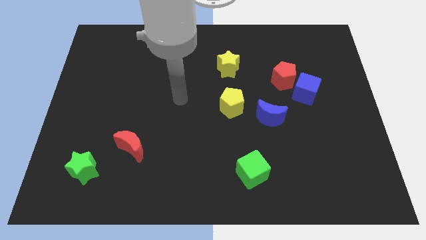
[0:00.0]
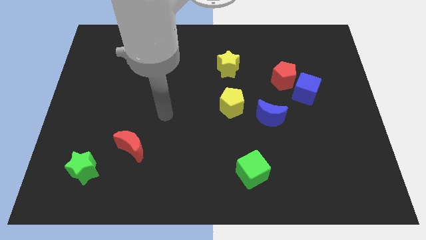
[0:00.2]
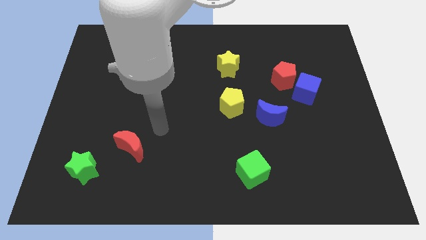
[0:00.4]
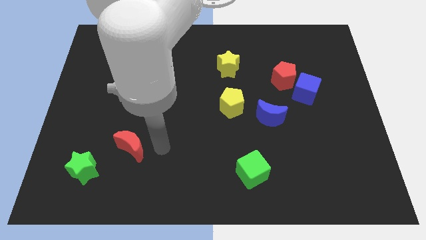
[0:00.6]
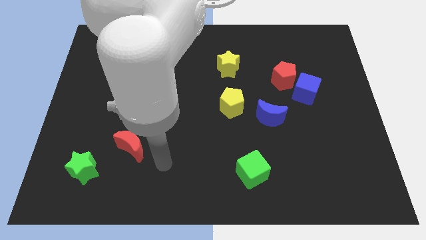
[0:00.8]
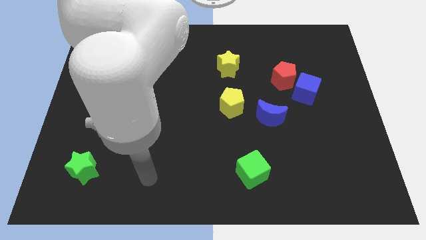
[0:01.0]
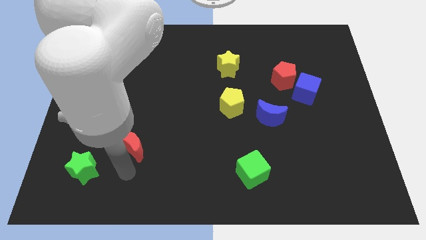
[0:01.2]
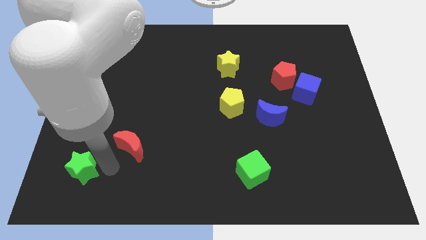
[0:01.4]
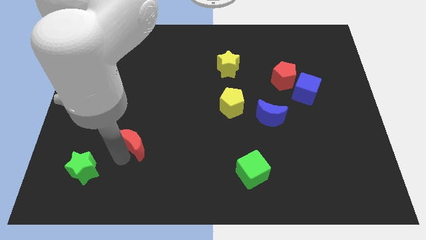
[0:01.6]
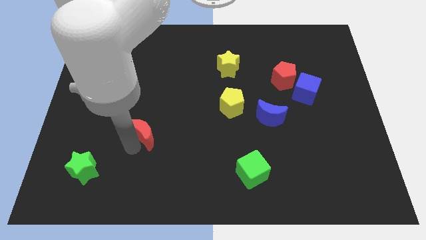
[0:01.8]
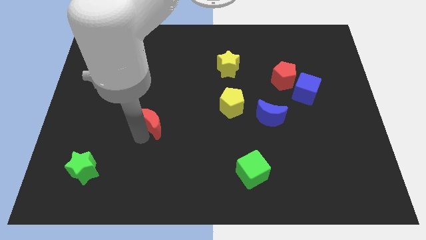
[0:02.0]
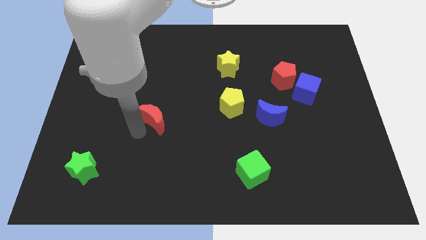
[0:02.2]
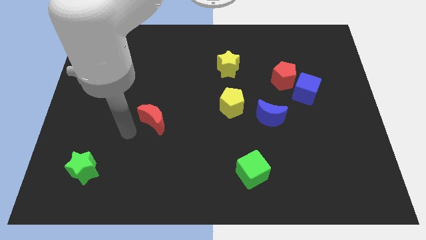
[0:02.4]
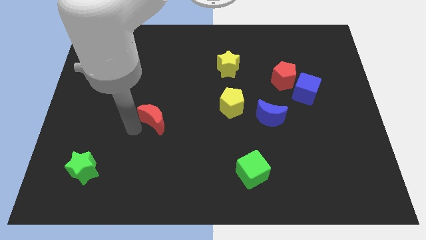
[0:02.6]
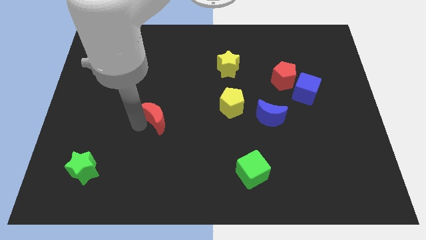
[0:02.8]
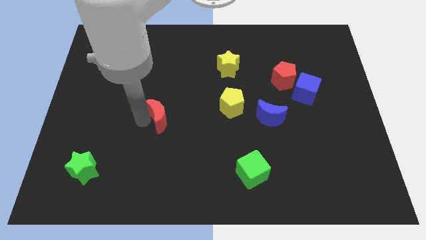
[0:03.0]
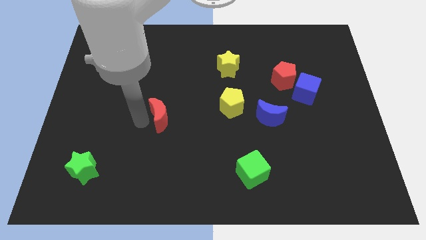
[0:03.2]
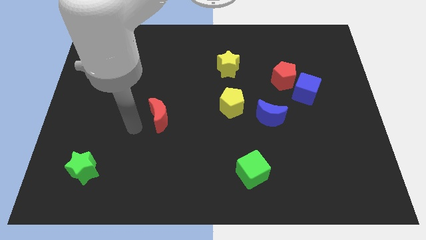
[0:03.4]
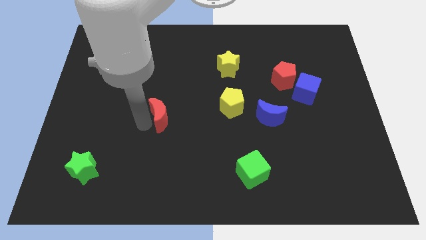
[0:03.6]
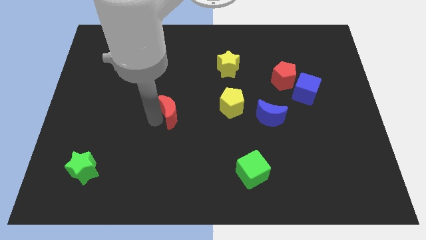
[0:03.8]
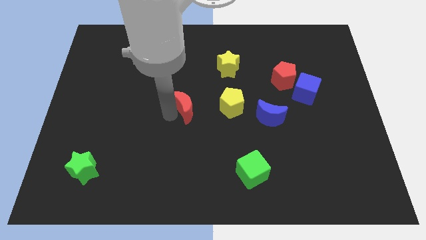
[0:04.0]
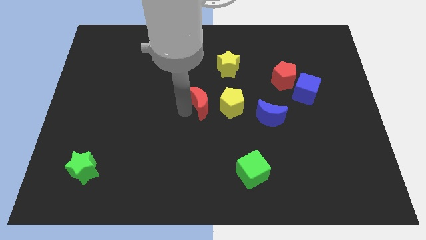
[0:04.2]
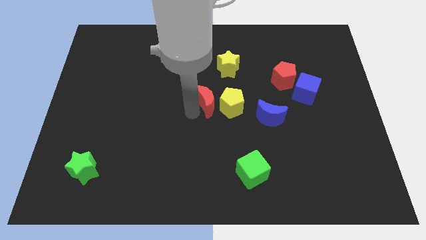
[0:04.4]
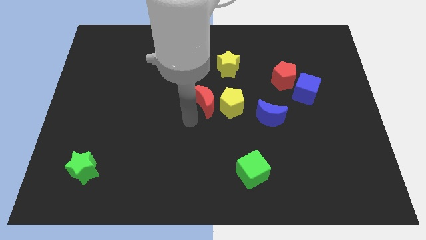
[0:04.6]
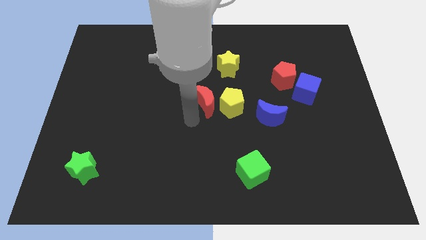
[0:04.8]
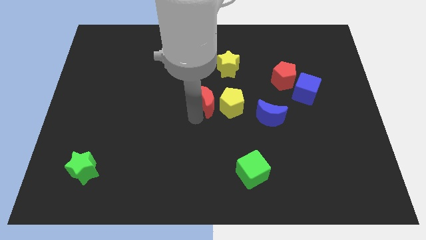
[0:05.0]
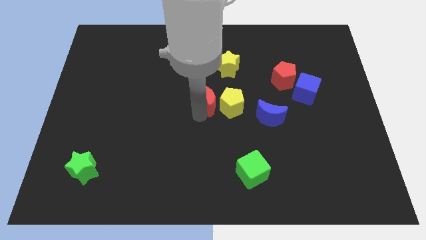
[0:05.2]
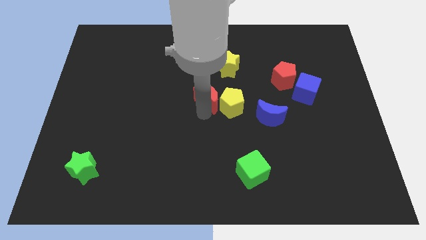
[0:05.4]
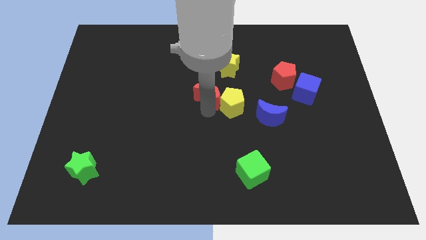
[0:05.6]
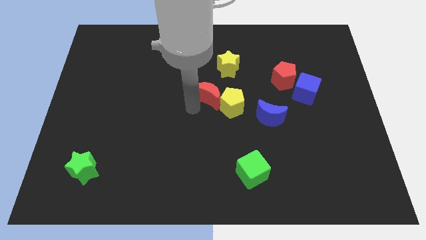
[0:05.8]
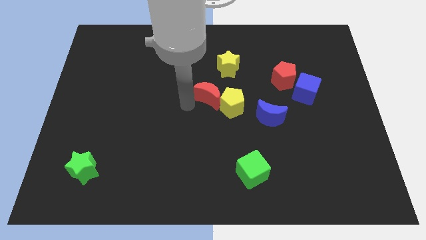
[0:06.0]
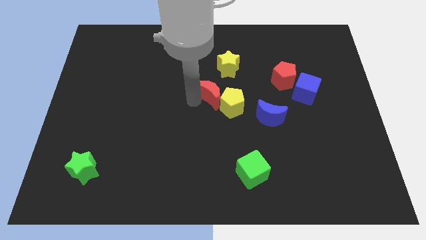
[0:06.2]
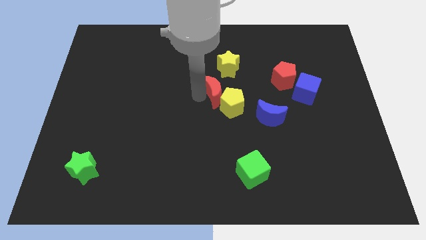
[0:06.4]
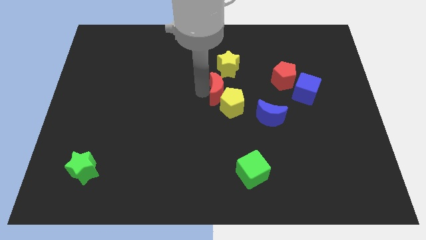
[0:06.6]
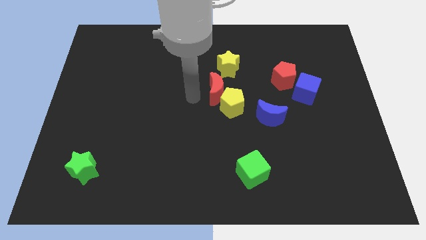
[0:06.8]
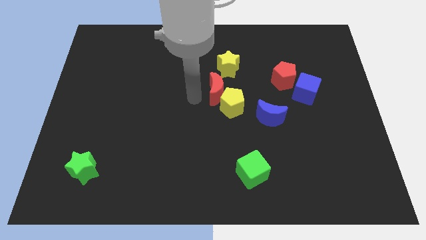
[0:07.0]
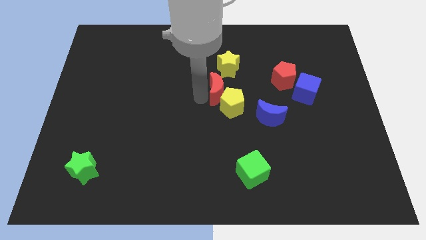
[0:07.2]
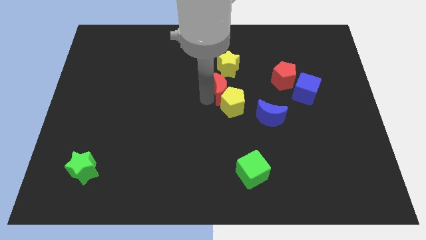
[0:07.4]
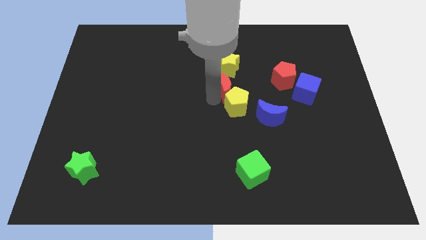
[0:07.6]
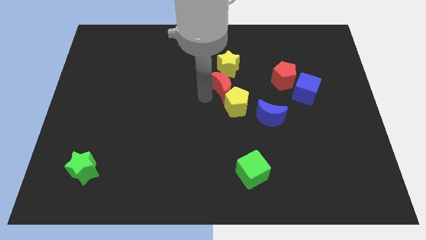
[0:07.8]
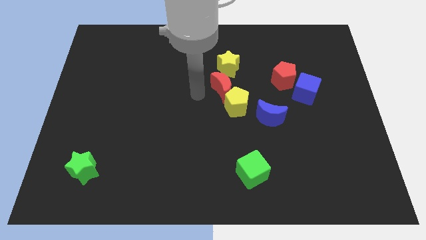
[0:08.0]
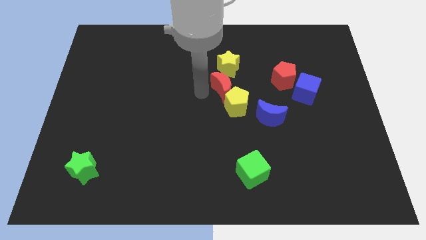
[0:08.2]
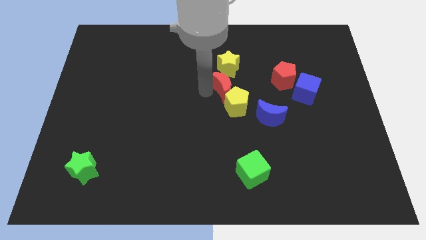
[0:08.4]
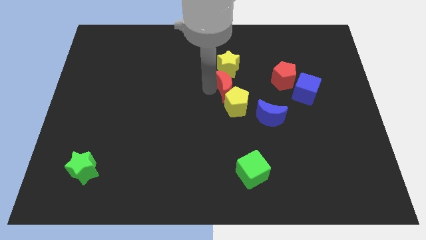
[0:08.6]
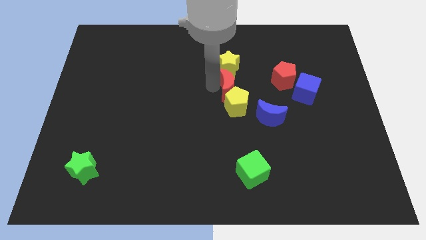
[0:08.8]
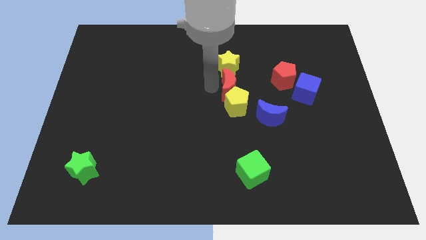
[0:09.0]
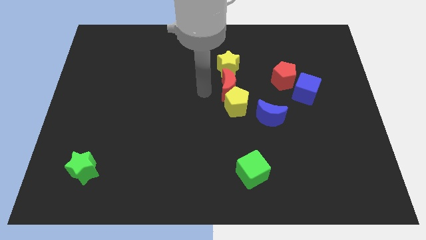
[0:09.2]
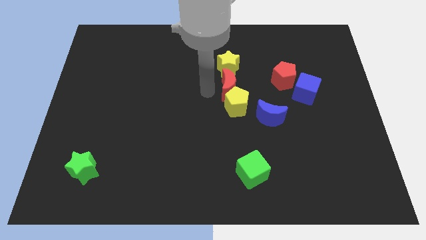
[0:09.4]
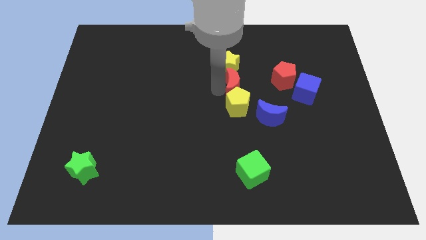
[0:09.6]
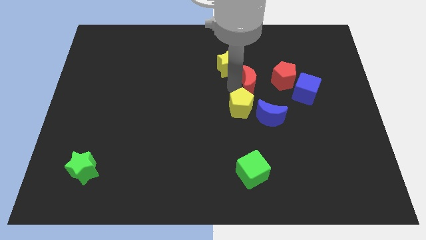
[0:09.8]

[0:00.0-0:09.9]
slide the red moon above the blue moon

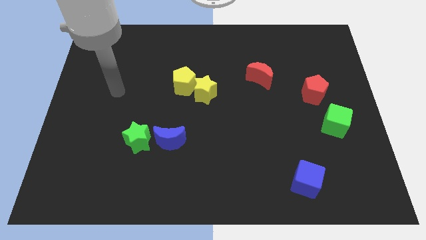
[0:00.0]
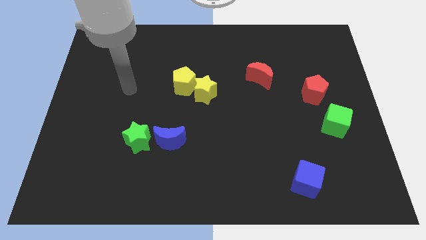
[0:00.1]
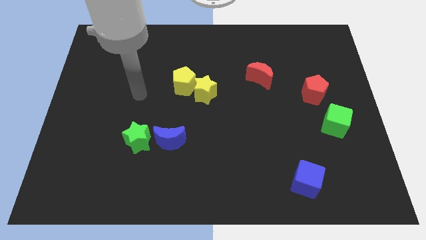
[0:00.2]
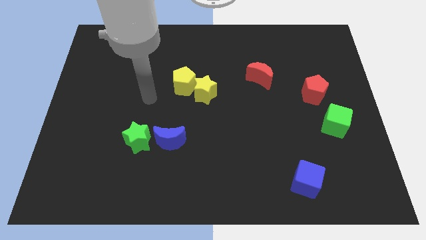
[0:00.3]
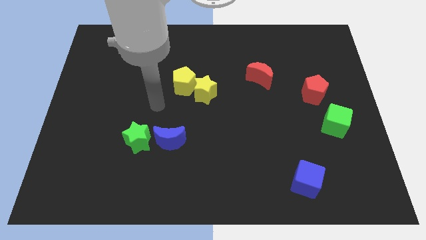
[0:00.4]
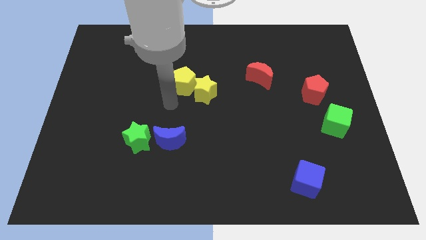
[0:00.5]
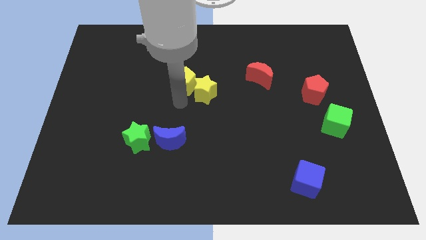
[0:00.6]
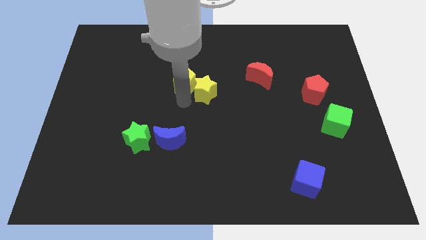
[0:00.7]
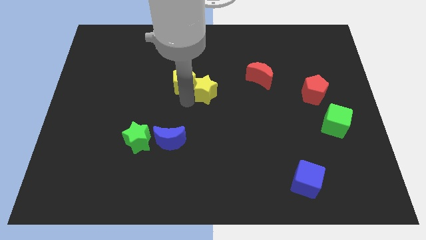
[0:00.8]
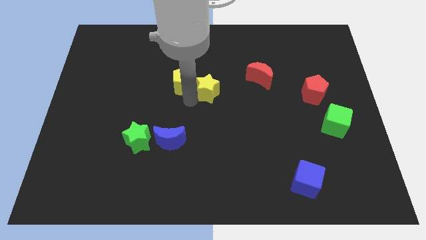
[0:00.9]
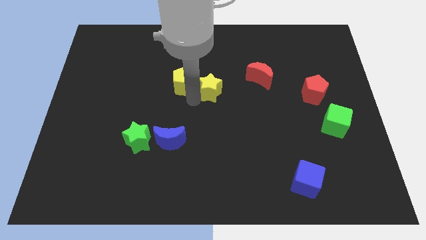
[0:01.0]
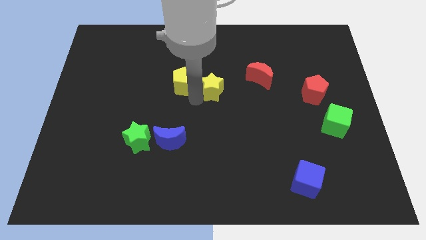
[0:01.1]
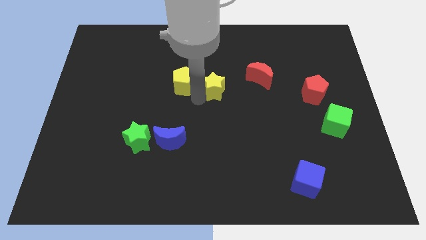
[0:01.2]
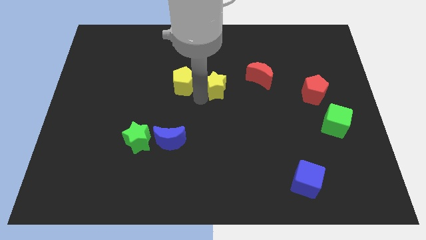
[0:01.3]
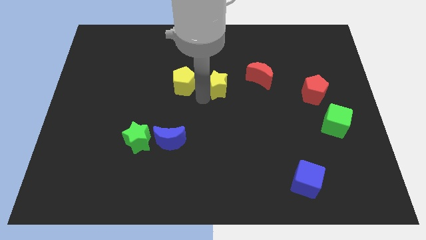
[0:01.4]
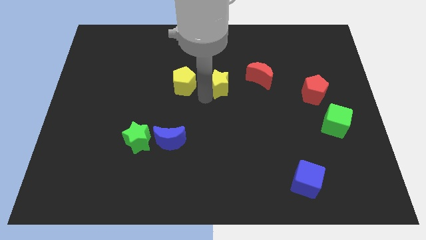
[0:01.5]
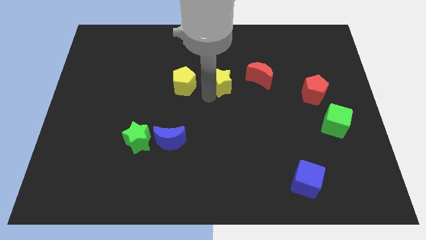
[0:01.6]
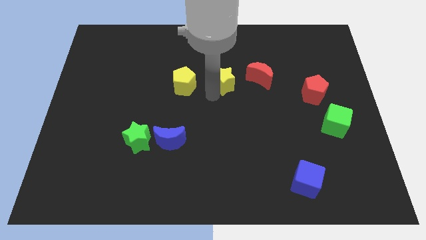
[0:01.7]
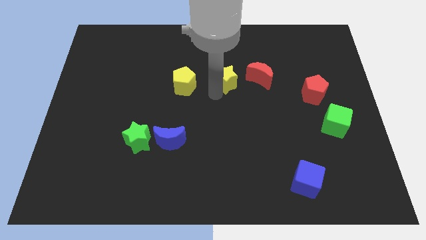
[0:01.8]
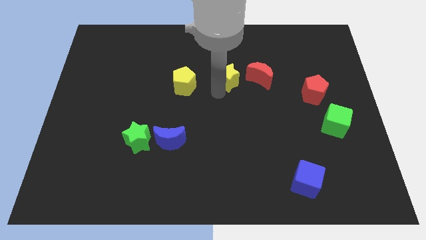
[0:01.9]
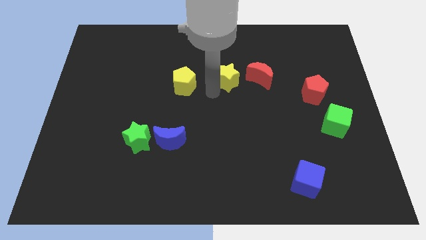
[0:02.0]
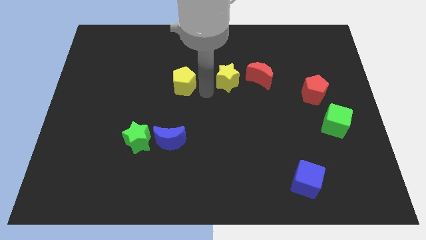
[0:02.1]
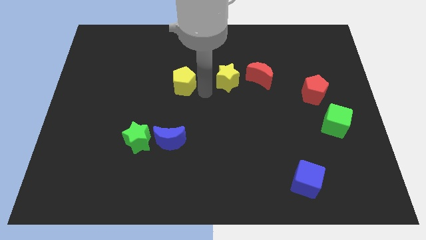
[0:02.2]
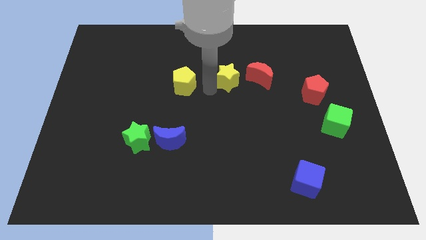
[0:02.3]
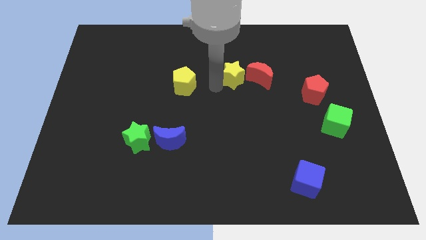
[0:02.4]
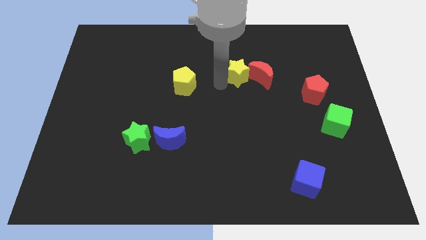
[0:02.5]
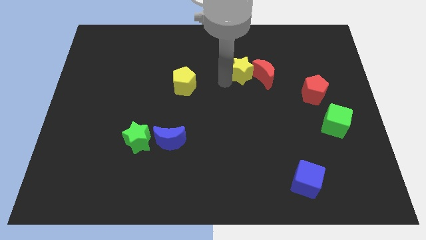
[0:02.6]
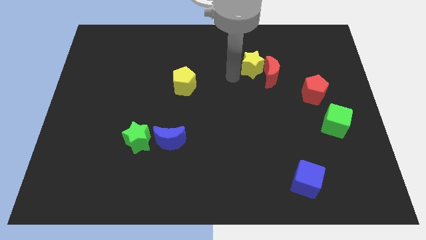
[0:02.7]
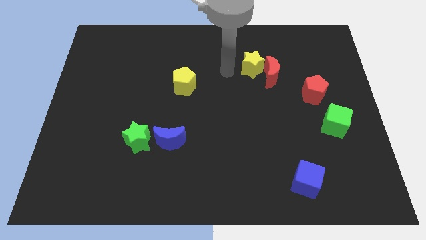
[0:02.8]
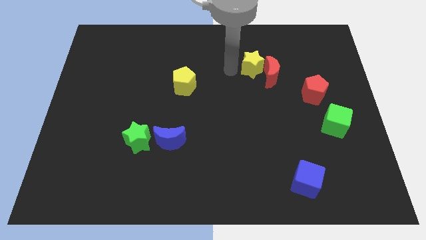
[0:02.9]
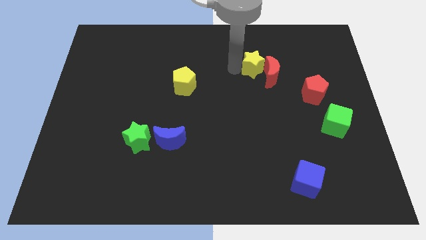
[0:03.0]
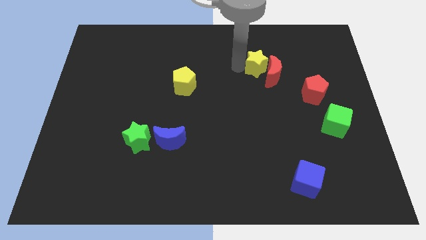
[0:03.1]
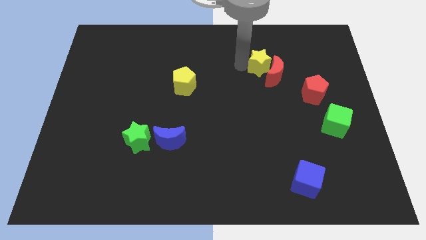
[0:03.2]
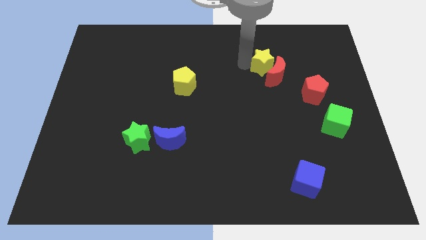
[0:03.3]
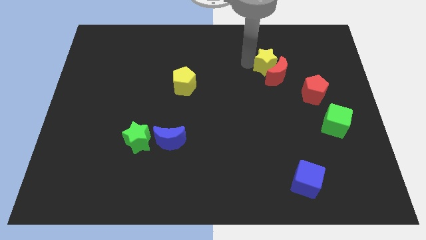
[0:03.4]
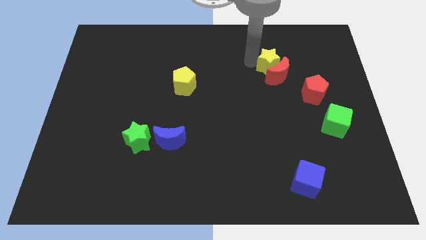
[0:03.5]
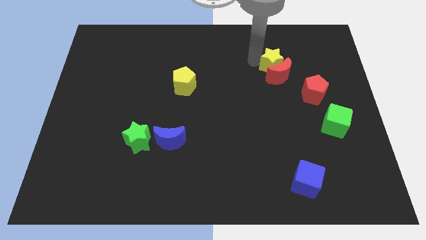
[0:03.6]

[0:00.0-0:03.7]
move the yellow star diagonally up and to the right of the red moon
